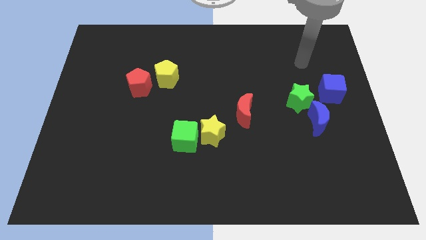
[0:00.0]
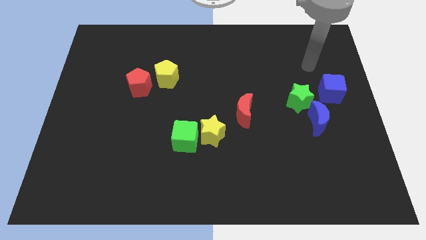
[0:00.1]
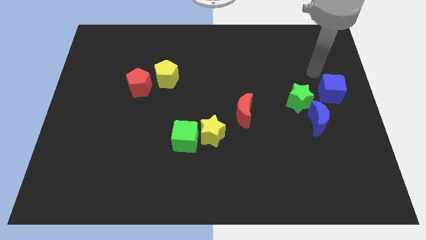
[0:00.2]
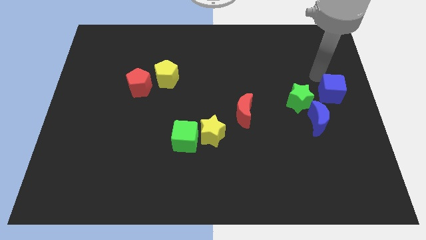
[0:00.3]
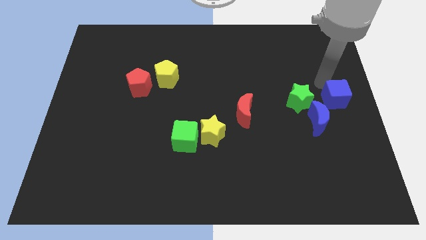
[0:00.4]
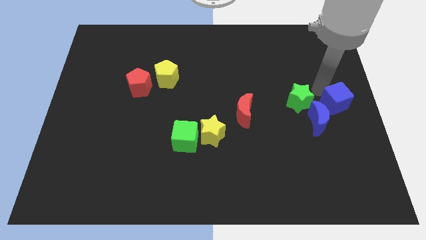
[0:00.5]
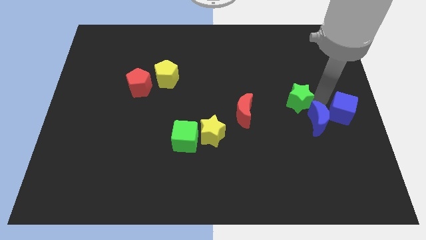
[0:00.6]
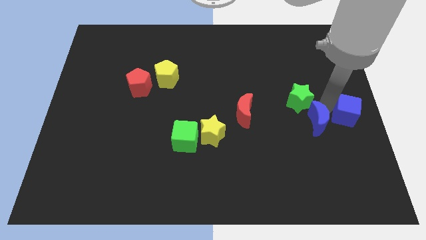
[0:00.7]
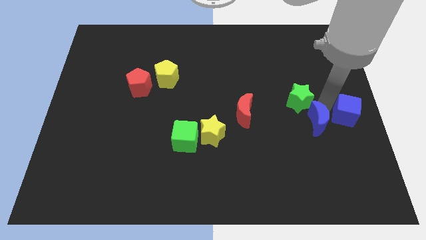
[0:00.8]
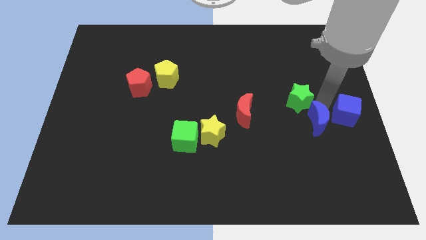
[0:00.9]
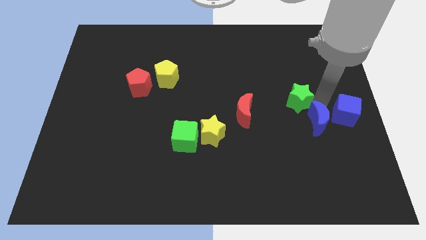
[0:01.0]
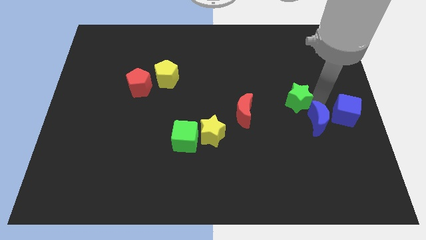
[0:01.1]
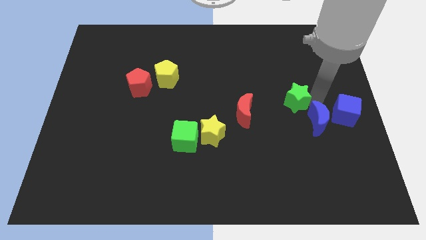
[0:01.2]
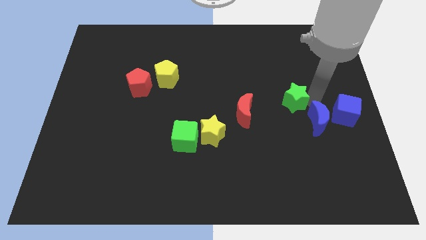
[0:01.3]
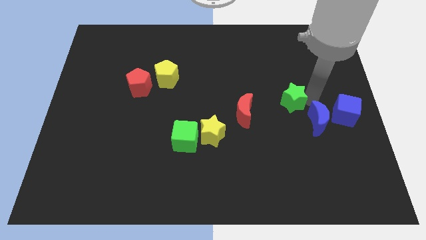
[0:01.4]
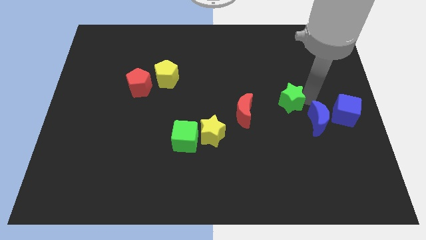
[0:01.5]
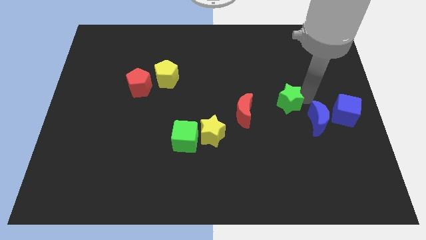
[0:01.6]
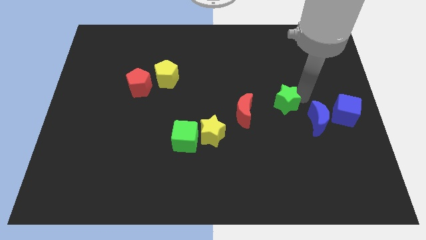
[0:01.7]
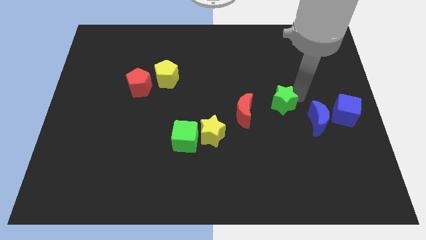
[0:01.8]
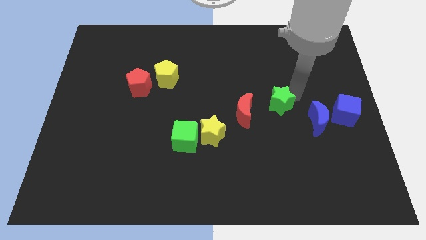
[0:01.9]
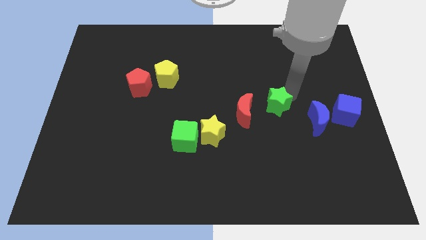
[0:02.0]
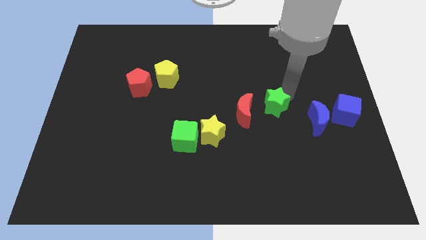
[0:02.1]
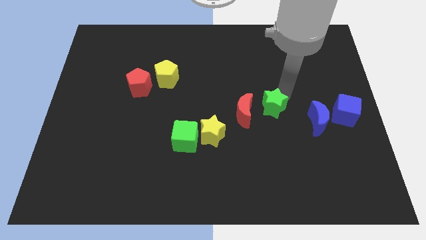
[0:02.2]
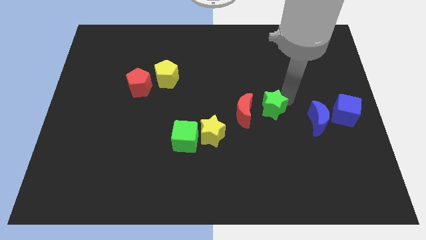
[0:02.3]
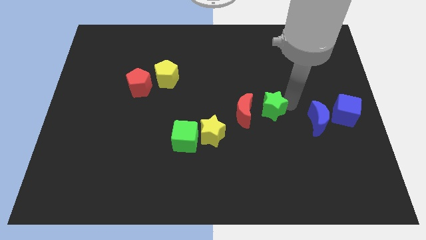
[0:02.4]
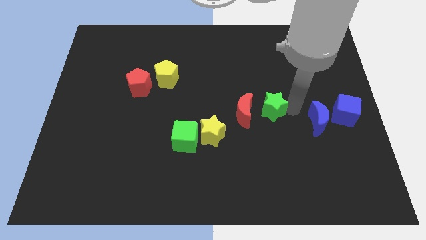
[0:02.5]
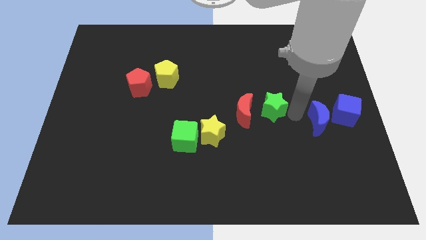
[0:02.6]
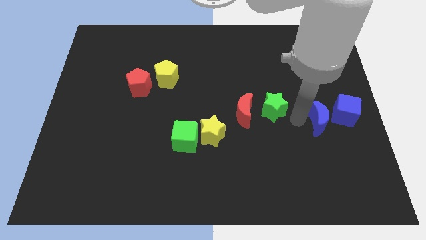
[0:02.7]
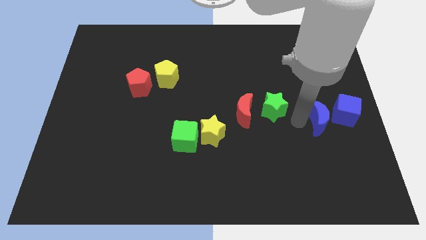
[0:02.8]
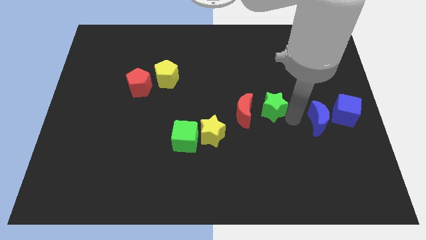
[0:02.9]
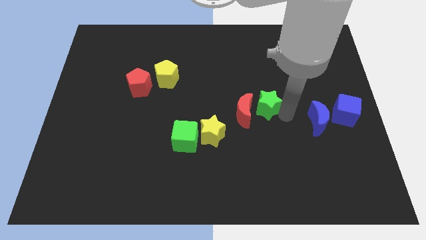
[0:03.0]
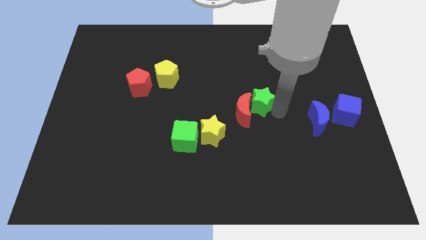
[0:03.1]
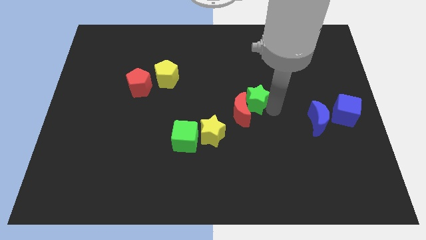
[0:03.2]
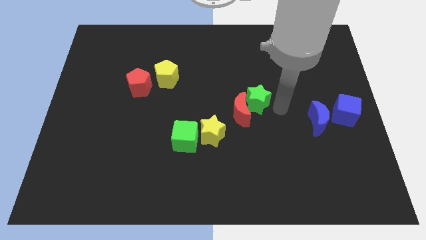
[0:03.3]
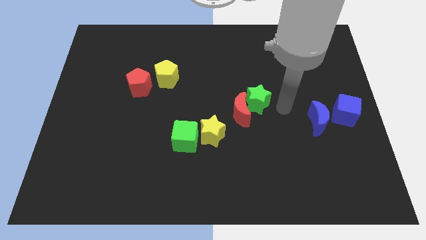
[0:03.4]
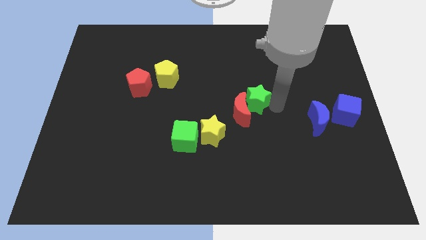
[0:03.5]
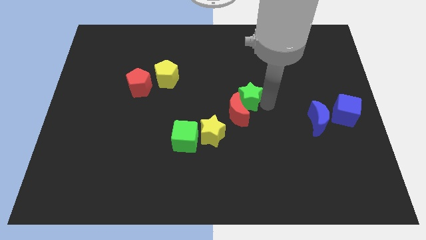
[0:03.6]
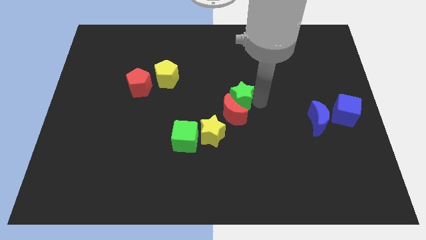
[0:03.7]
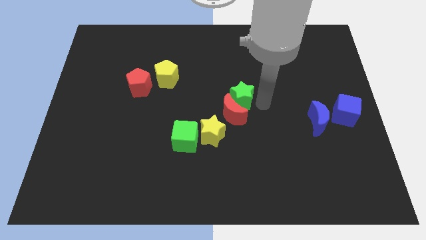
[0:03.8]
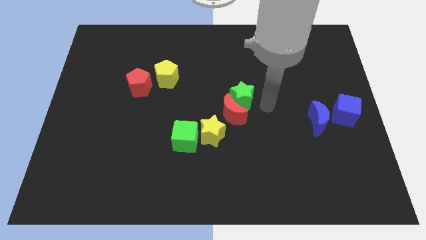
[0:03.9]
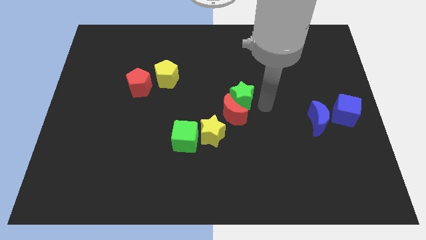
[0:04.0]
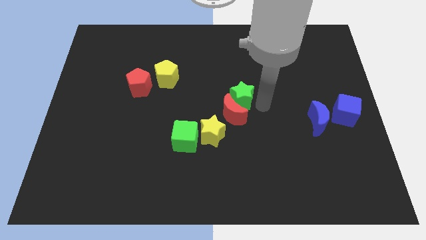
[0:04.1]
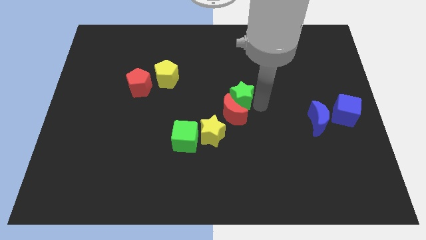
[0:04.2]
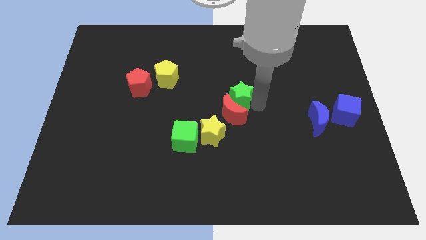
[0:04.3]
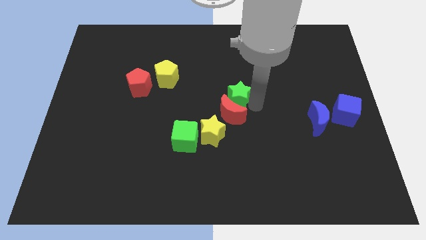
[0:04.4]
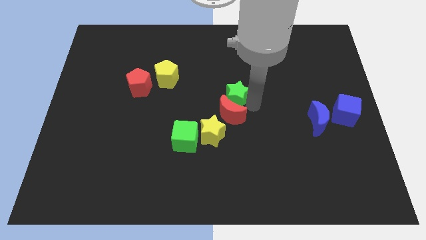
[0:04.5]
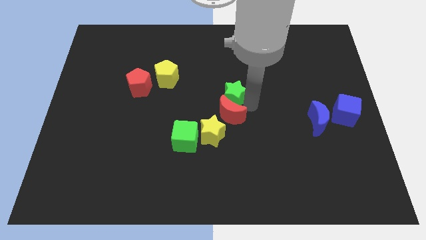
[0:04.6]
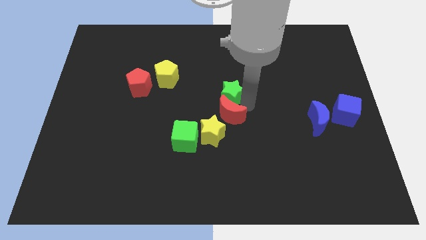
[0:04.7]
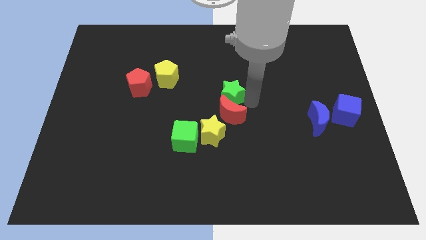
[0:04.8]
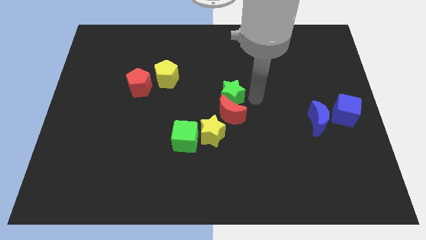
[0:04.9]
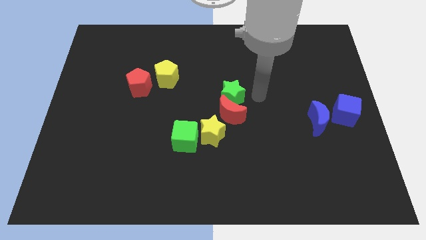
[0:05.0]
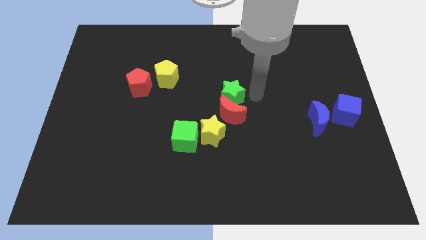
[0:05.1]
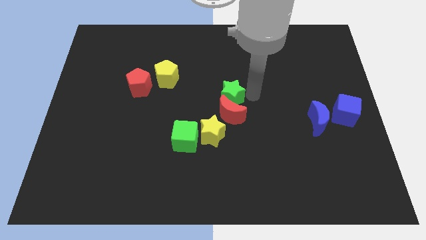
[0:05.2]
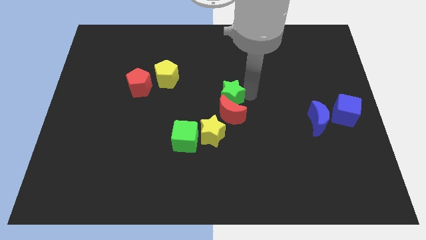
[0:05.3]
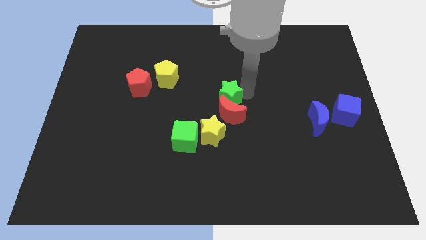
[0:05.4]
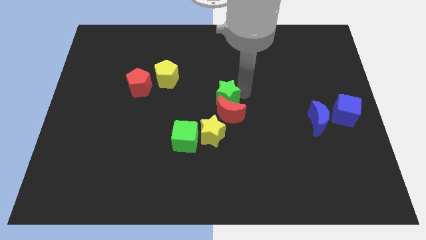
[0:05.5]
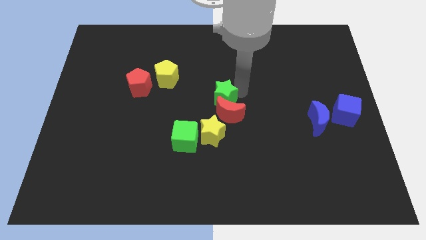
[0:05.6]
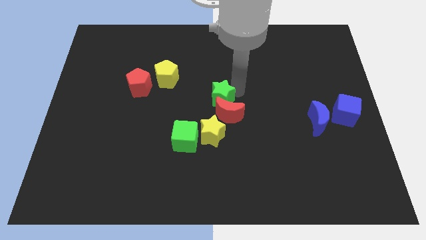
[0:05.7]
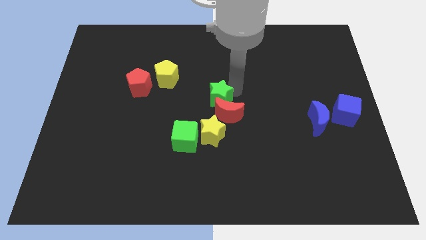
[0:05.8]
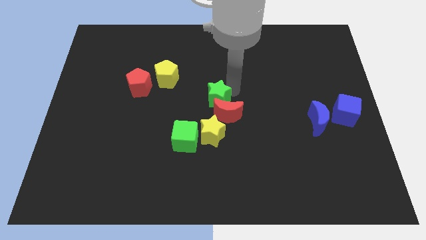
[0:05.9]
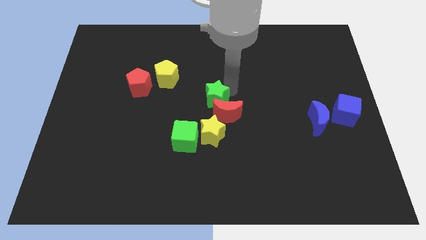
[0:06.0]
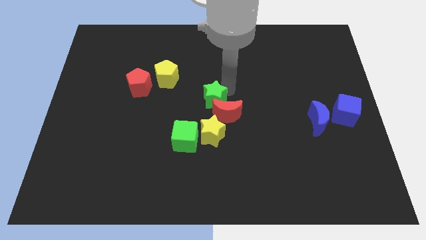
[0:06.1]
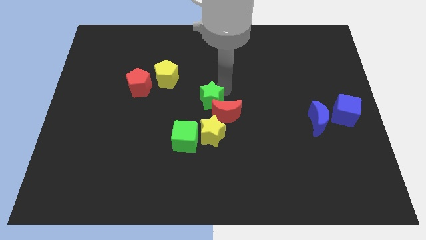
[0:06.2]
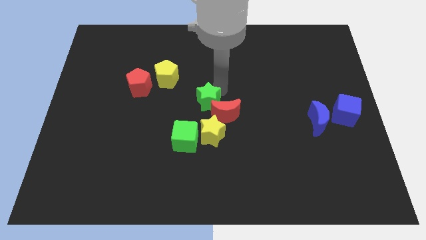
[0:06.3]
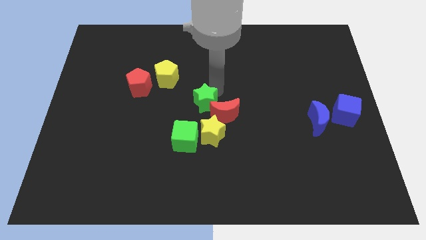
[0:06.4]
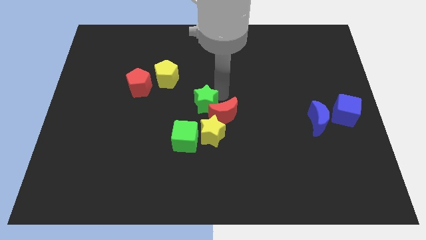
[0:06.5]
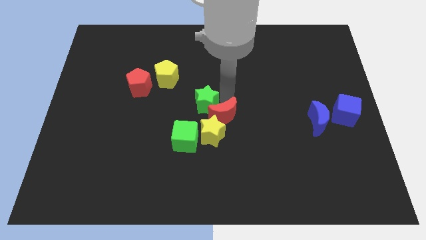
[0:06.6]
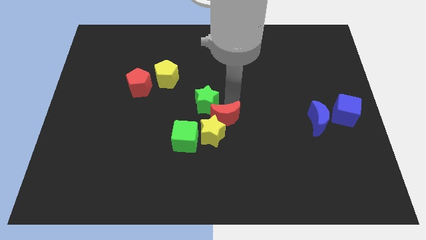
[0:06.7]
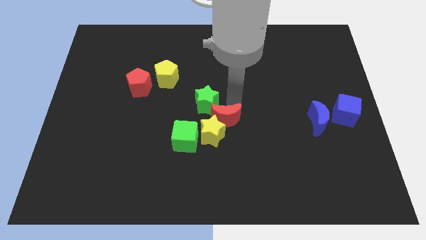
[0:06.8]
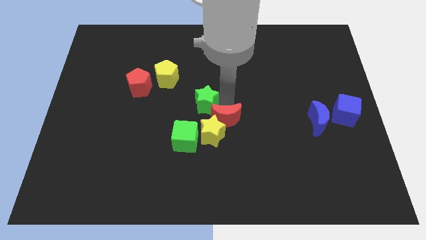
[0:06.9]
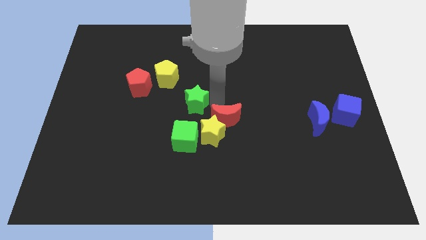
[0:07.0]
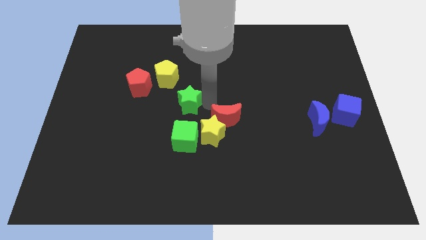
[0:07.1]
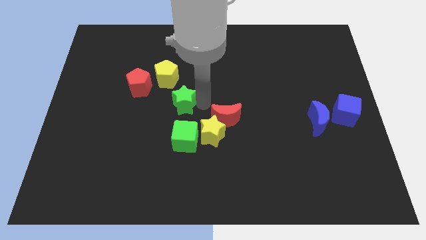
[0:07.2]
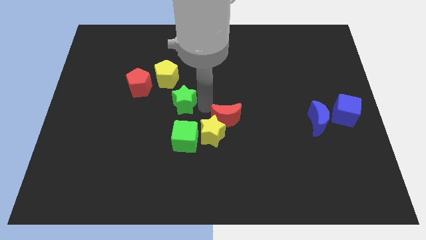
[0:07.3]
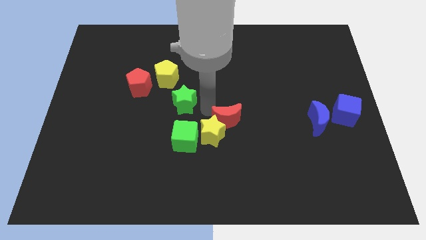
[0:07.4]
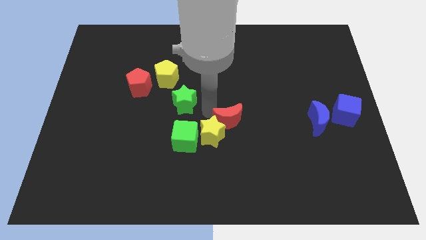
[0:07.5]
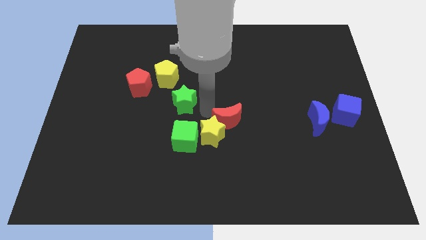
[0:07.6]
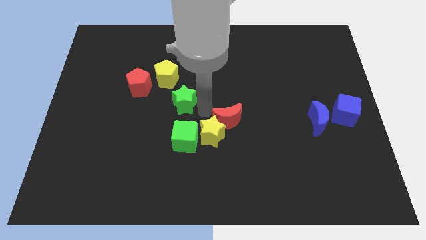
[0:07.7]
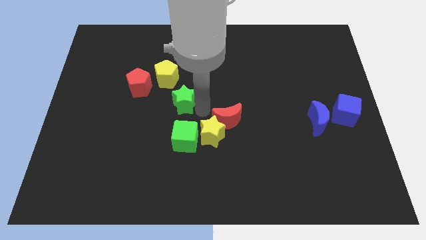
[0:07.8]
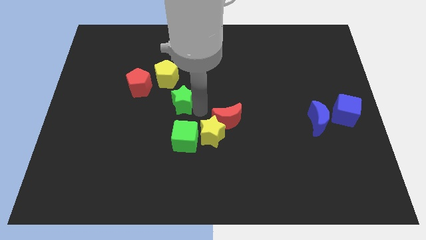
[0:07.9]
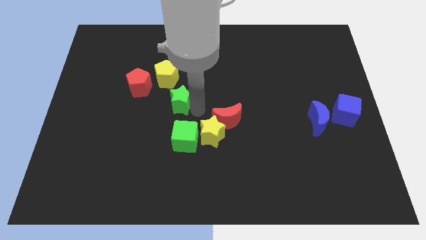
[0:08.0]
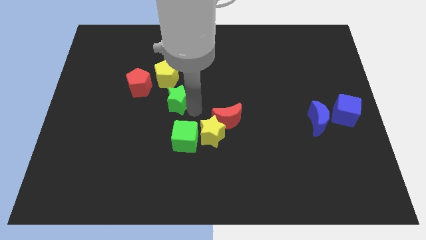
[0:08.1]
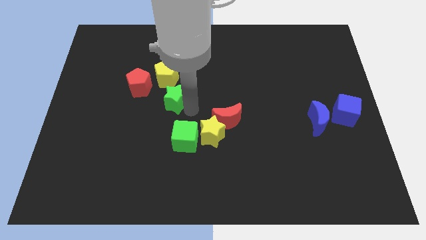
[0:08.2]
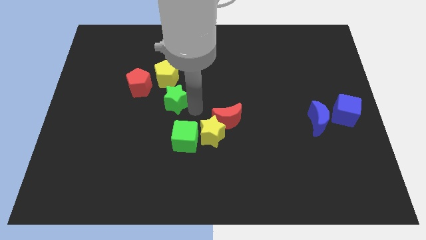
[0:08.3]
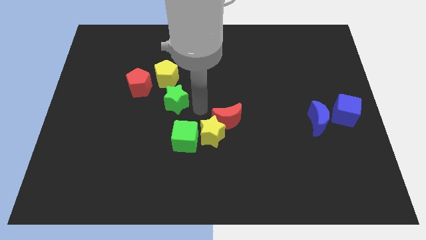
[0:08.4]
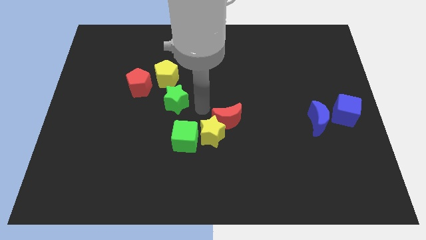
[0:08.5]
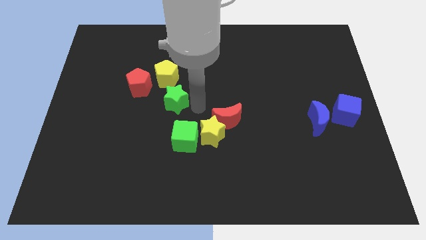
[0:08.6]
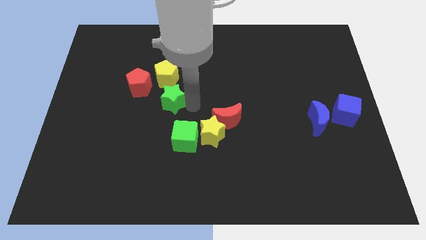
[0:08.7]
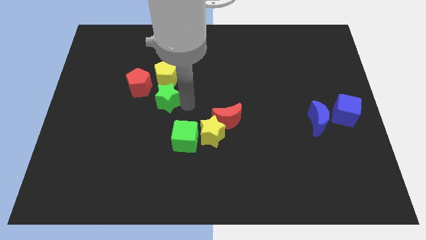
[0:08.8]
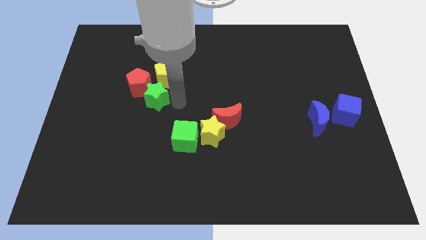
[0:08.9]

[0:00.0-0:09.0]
put the green star close to the red pentagon
